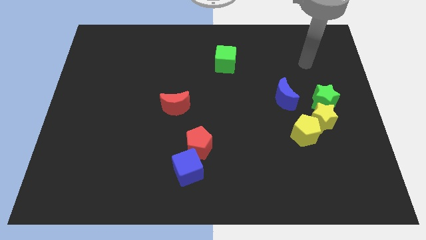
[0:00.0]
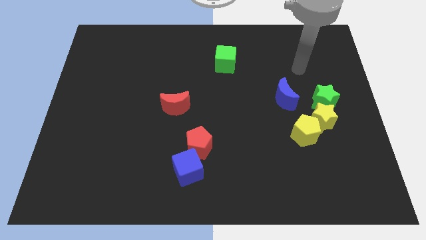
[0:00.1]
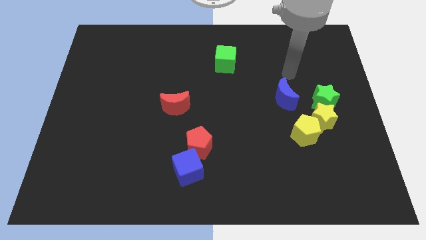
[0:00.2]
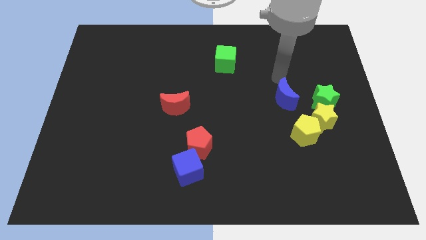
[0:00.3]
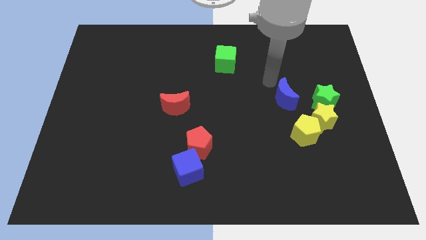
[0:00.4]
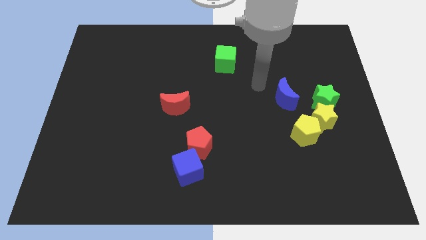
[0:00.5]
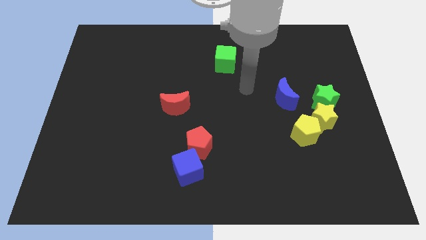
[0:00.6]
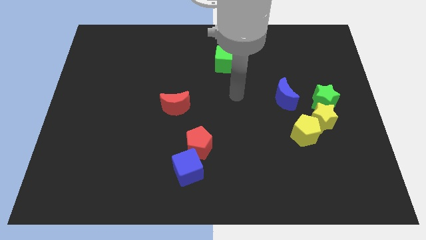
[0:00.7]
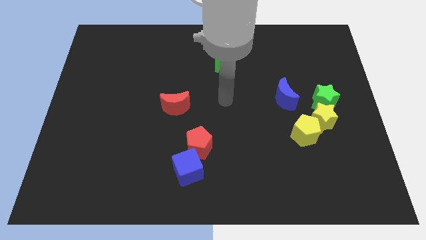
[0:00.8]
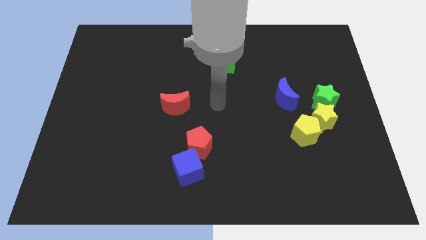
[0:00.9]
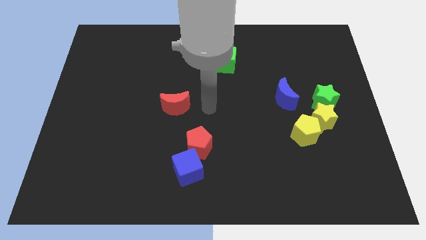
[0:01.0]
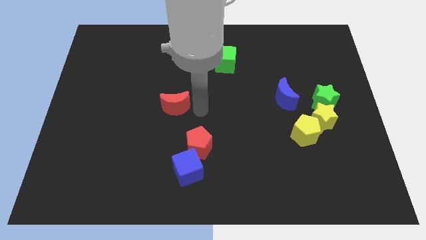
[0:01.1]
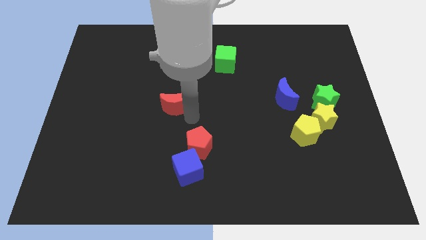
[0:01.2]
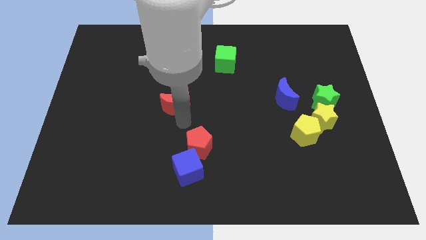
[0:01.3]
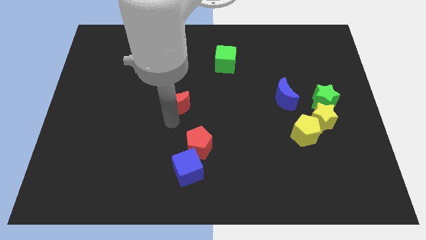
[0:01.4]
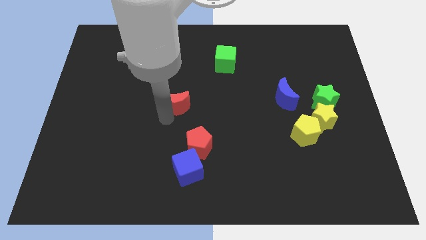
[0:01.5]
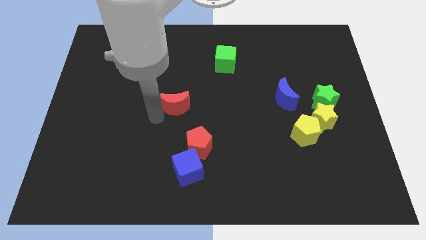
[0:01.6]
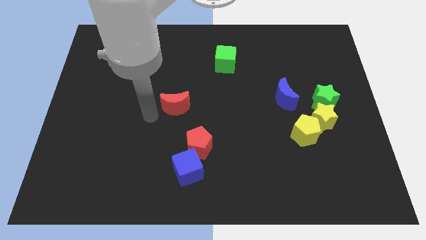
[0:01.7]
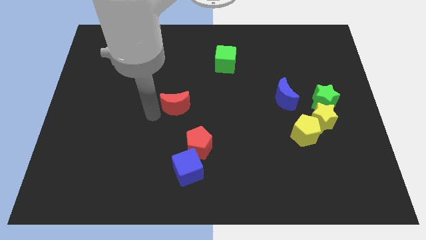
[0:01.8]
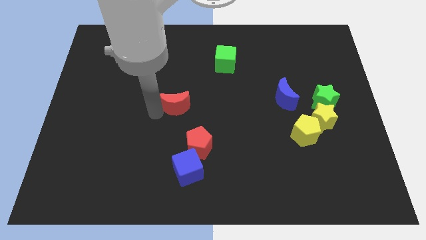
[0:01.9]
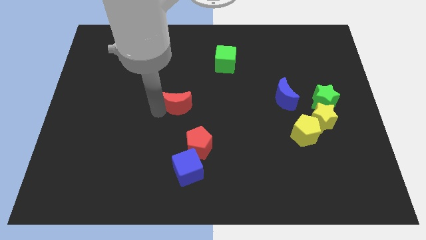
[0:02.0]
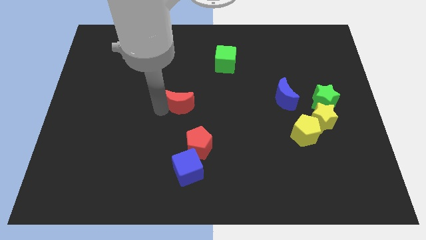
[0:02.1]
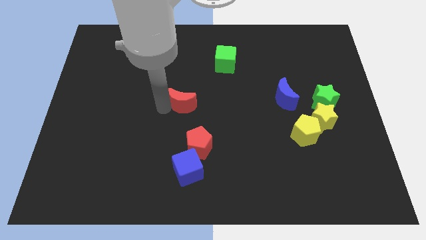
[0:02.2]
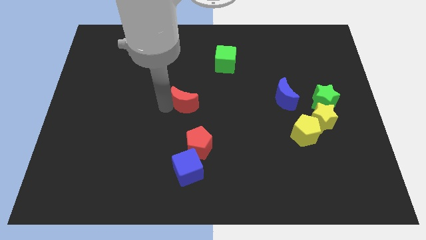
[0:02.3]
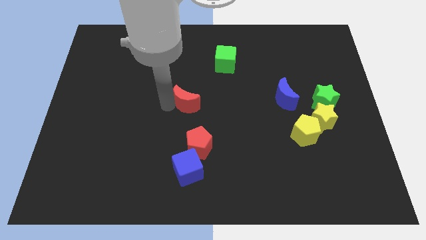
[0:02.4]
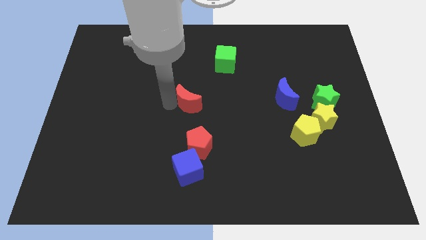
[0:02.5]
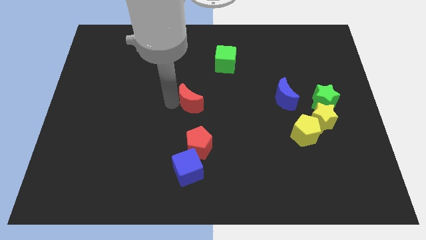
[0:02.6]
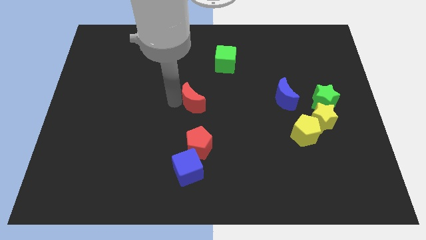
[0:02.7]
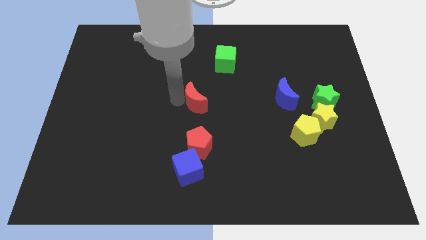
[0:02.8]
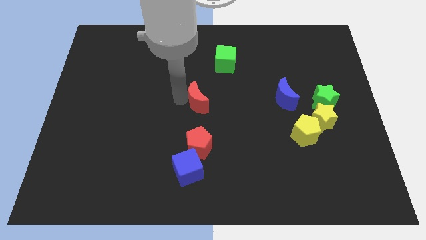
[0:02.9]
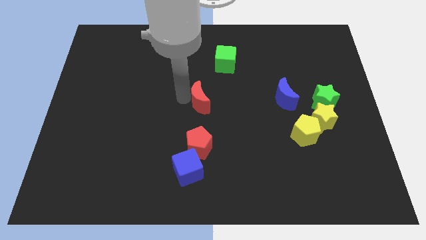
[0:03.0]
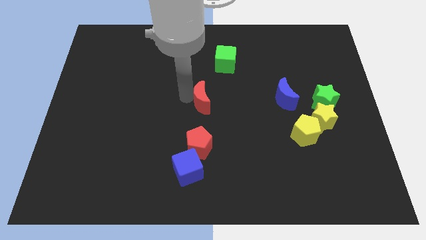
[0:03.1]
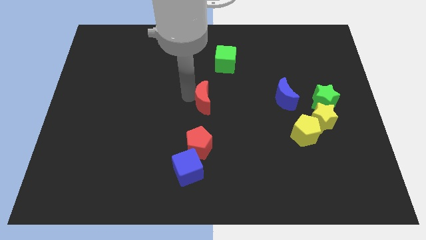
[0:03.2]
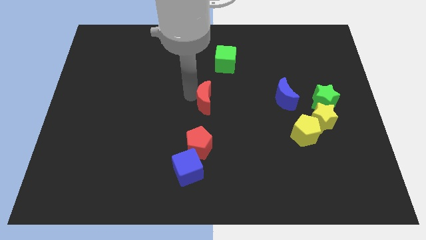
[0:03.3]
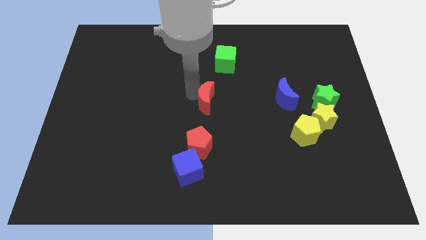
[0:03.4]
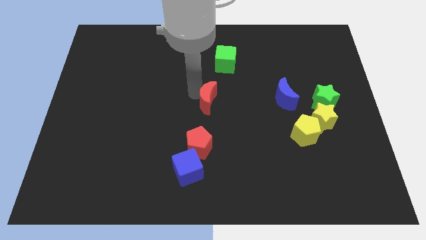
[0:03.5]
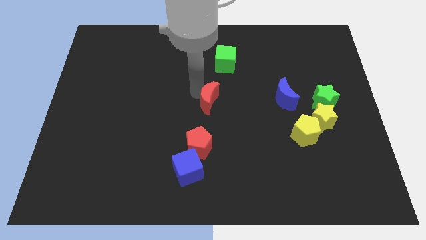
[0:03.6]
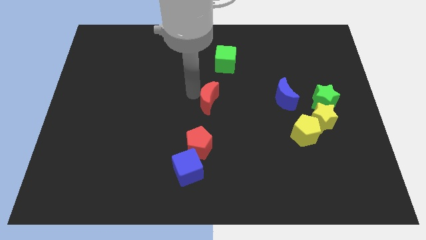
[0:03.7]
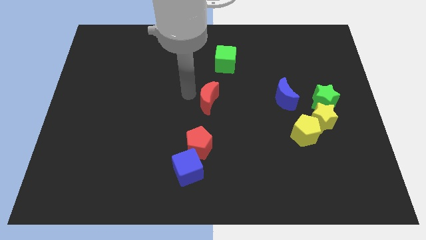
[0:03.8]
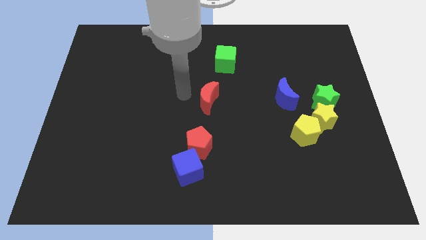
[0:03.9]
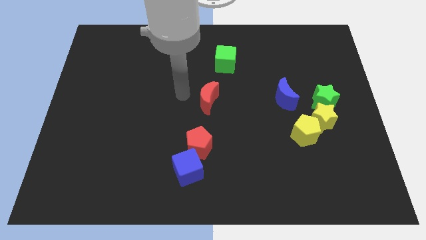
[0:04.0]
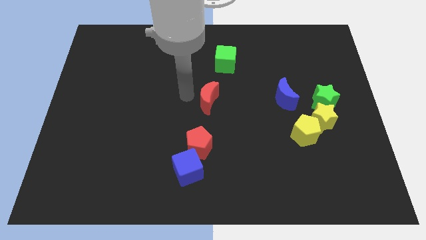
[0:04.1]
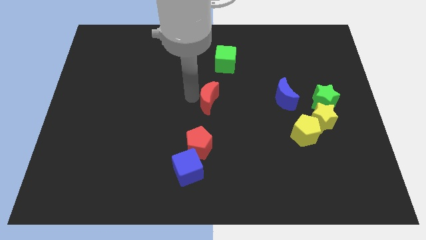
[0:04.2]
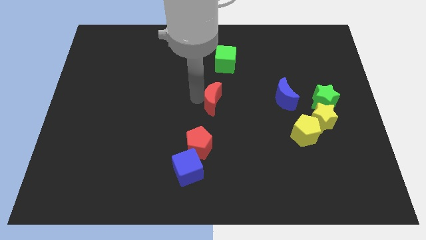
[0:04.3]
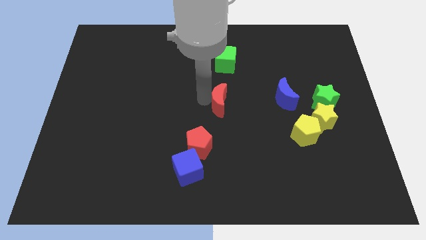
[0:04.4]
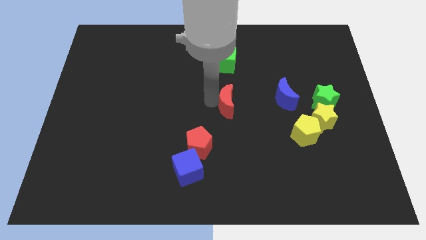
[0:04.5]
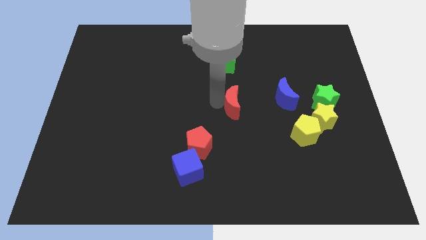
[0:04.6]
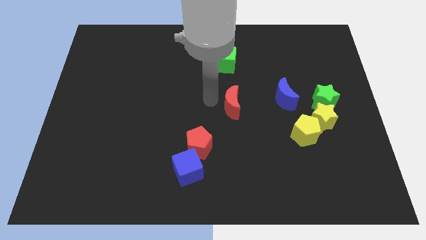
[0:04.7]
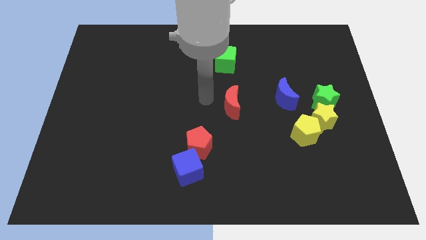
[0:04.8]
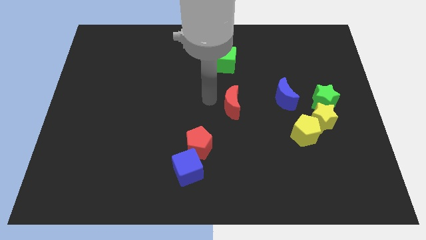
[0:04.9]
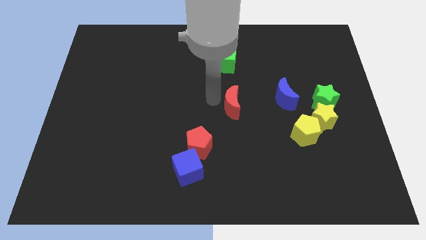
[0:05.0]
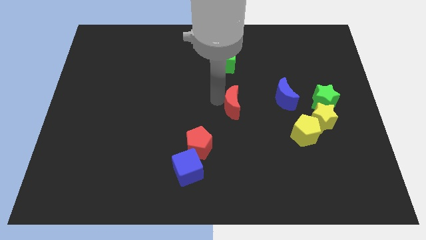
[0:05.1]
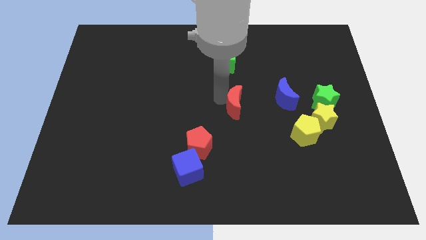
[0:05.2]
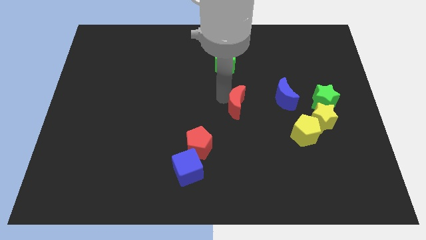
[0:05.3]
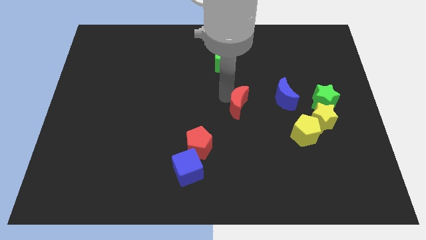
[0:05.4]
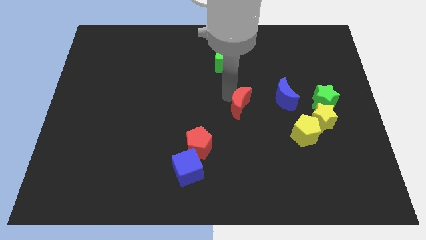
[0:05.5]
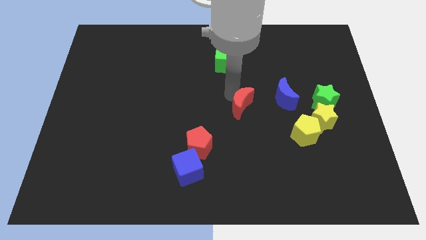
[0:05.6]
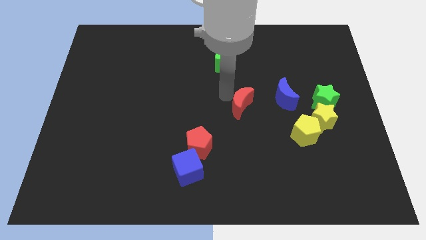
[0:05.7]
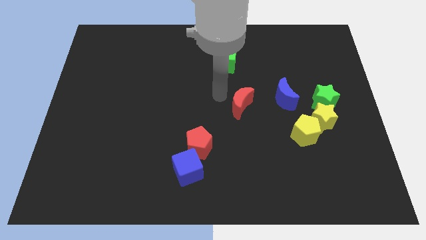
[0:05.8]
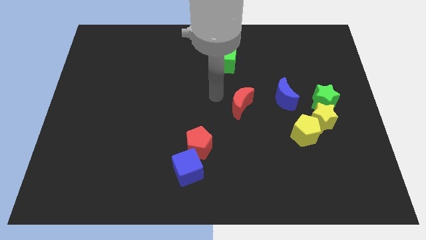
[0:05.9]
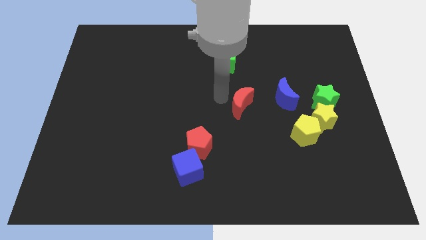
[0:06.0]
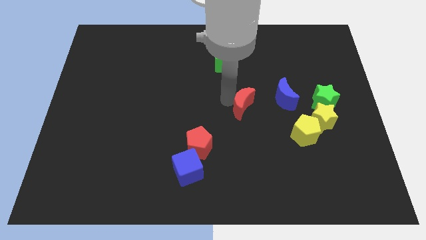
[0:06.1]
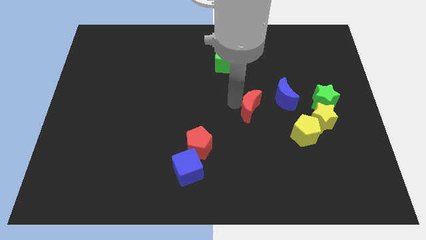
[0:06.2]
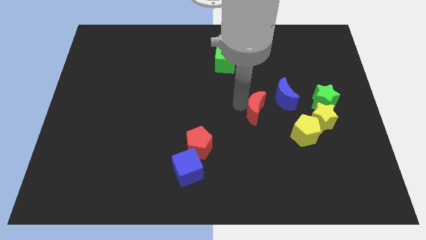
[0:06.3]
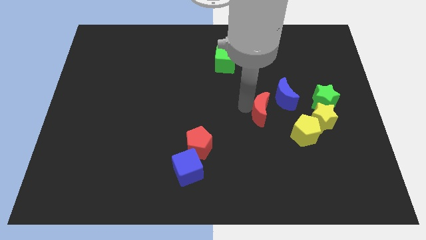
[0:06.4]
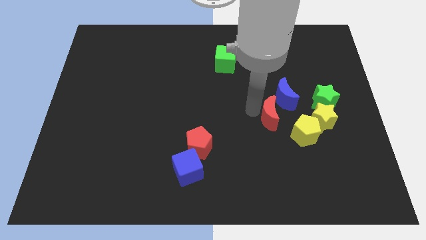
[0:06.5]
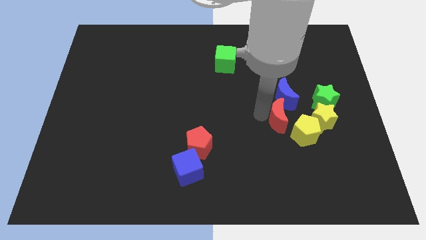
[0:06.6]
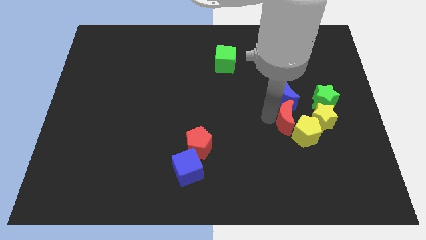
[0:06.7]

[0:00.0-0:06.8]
put the red moon to the bottom left side of the green star
